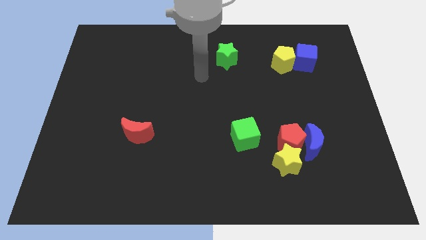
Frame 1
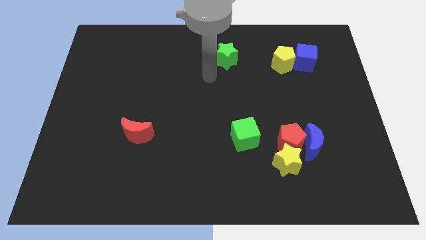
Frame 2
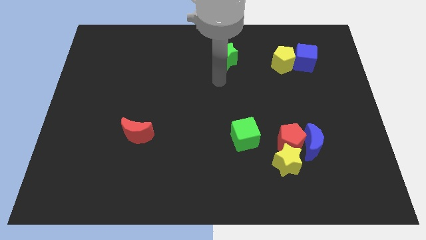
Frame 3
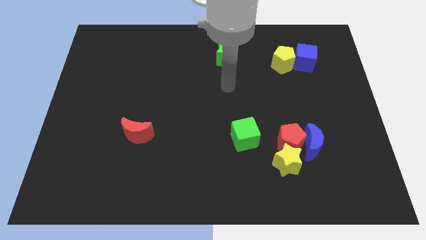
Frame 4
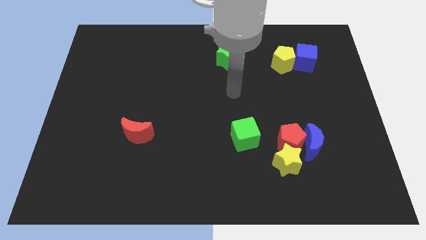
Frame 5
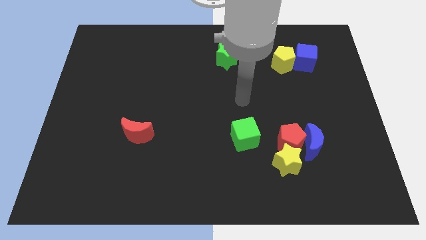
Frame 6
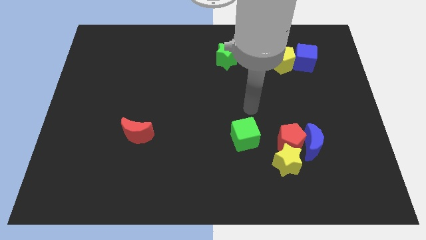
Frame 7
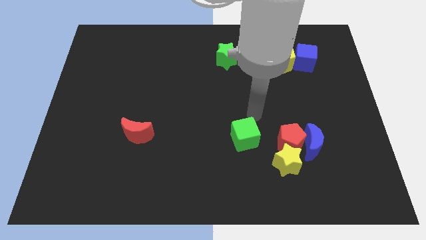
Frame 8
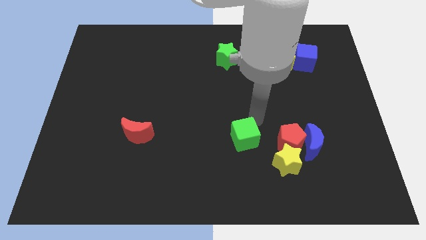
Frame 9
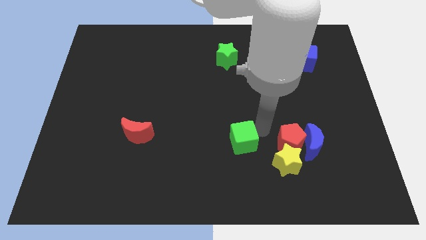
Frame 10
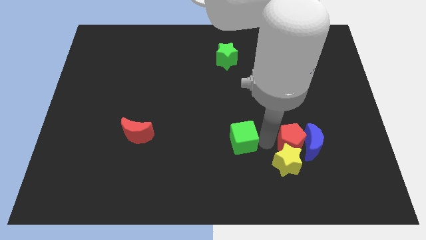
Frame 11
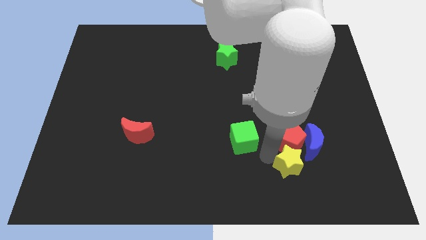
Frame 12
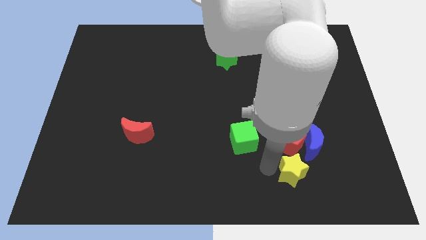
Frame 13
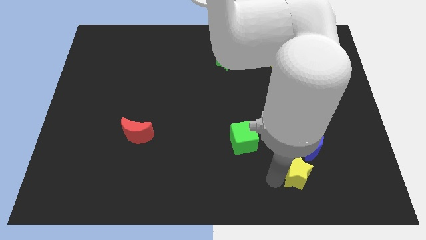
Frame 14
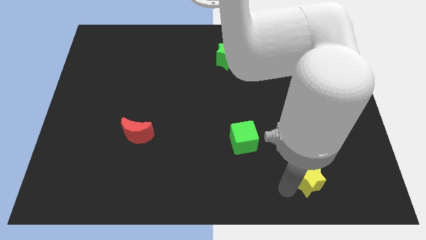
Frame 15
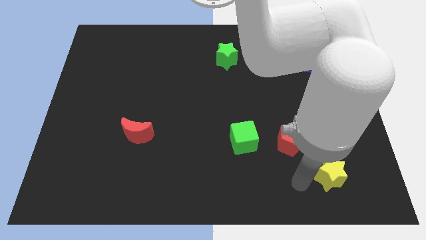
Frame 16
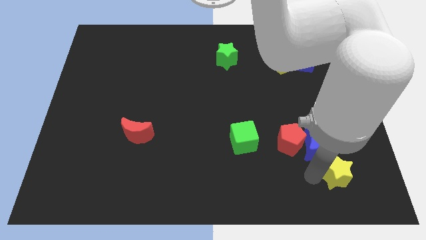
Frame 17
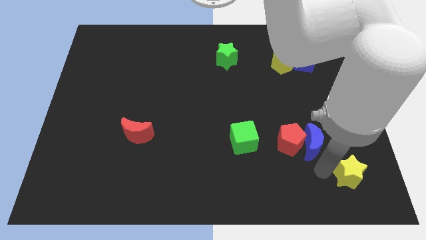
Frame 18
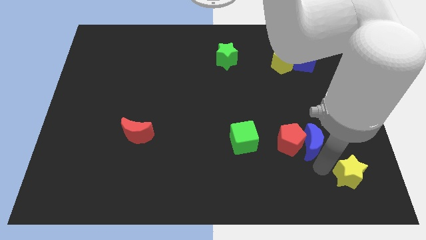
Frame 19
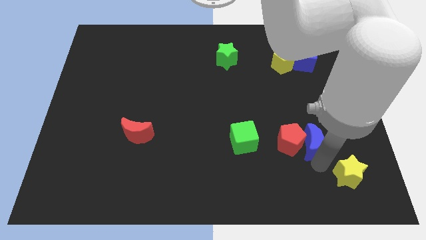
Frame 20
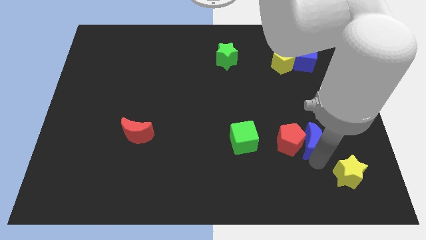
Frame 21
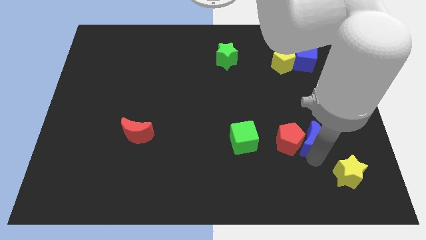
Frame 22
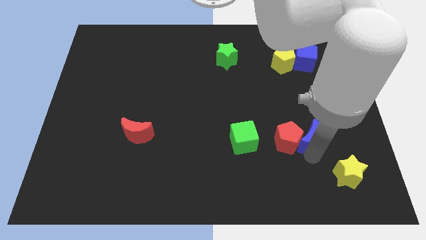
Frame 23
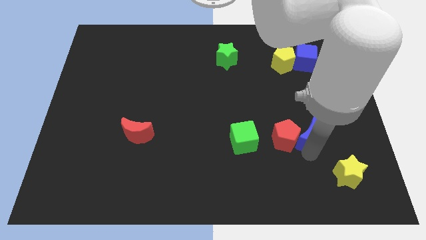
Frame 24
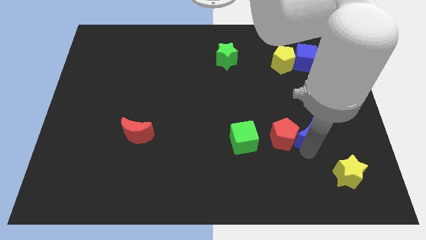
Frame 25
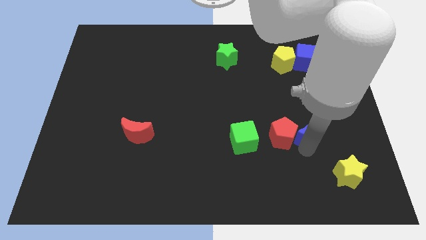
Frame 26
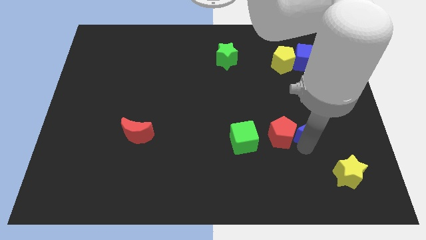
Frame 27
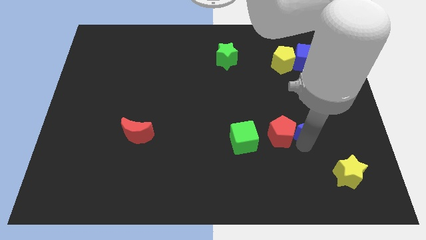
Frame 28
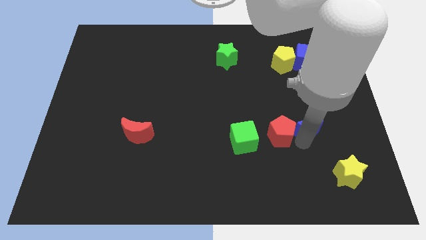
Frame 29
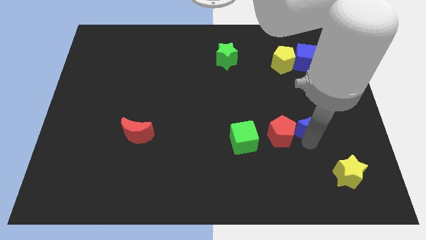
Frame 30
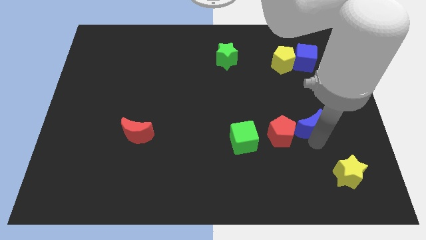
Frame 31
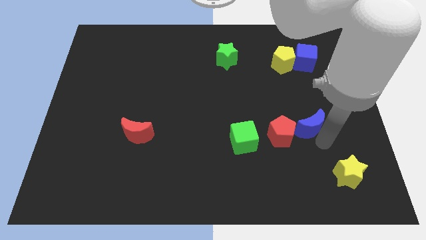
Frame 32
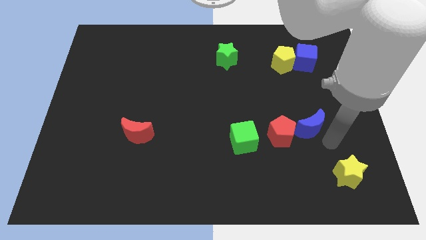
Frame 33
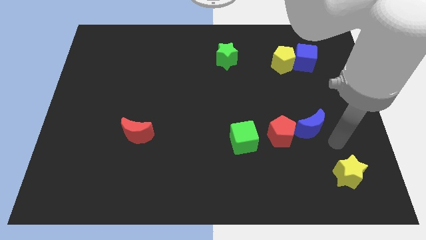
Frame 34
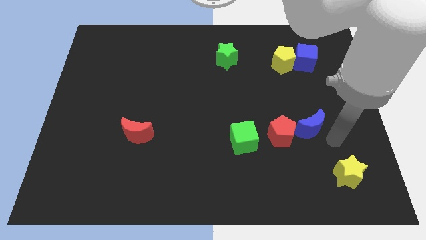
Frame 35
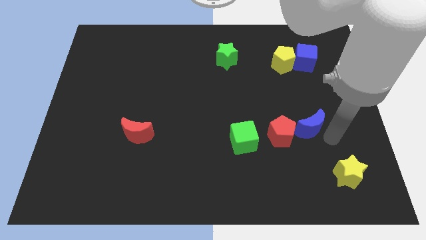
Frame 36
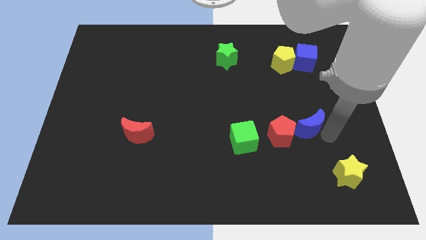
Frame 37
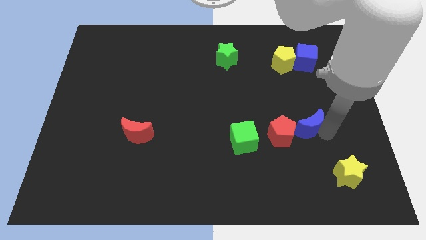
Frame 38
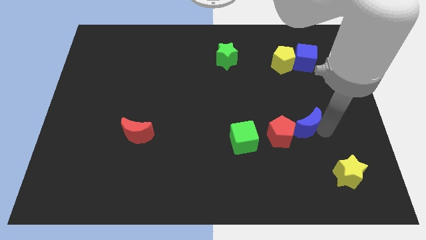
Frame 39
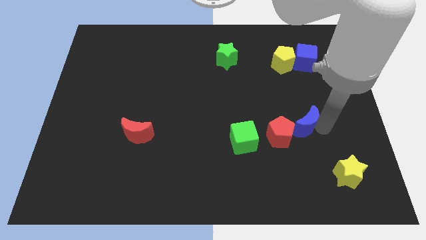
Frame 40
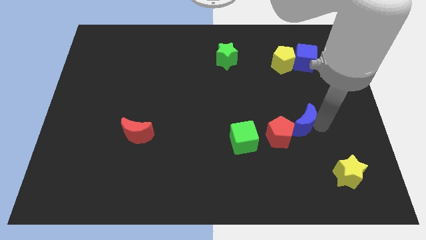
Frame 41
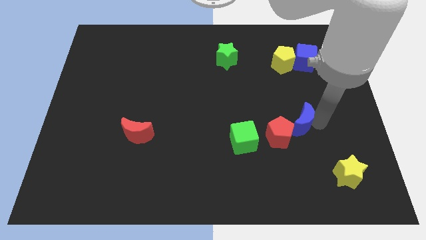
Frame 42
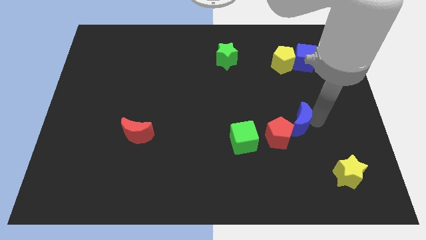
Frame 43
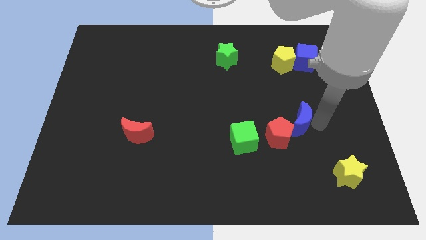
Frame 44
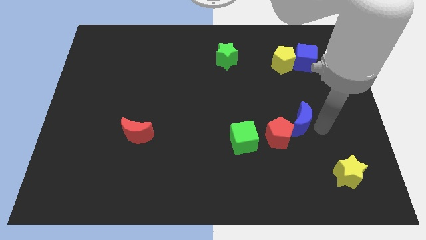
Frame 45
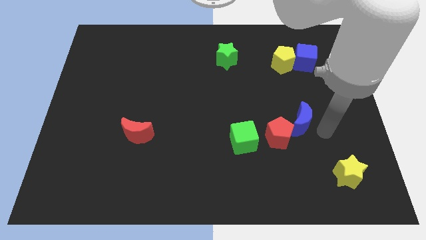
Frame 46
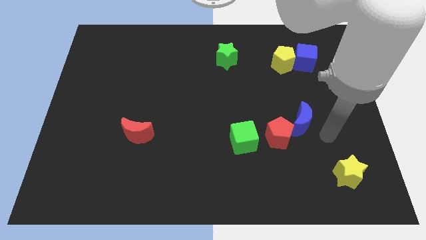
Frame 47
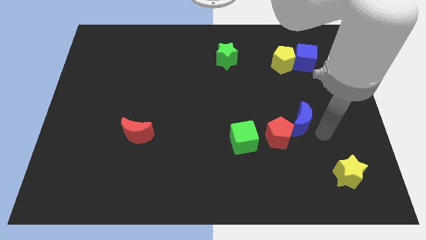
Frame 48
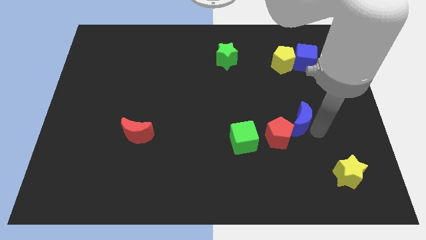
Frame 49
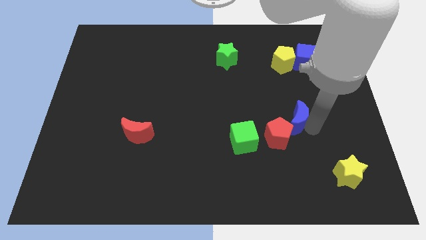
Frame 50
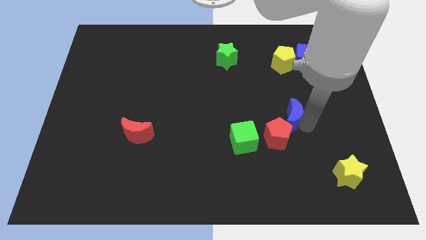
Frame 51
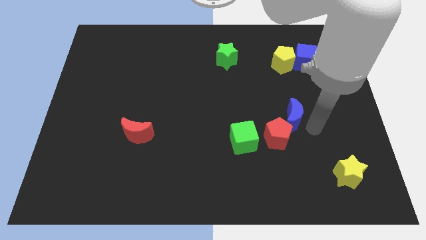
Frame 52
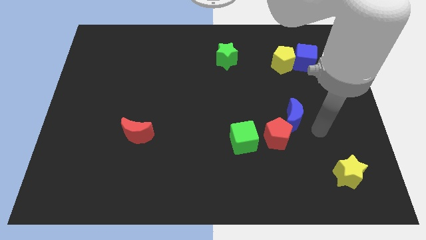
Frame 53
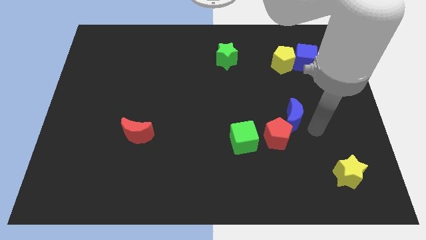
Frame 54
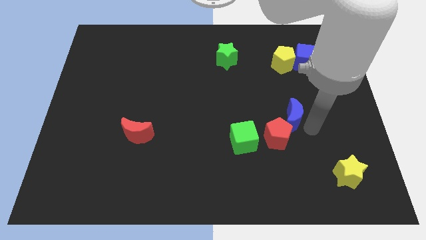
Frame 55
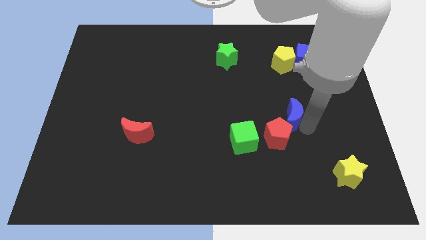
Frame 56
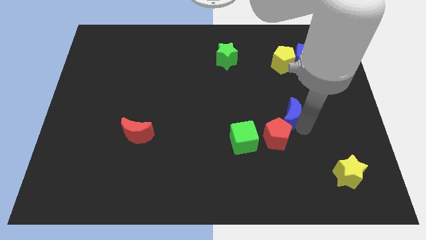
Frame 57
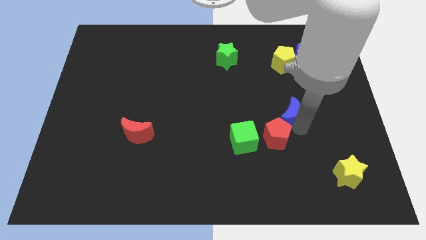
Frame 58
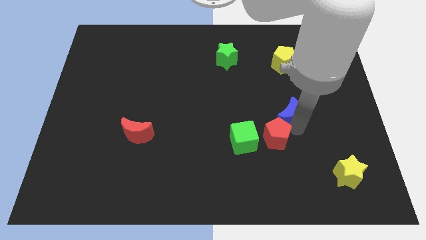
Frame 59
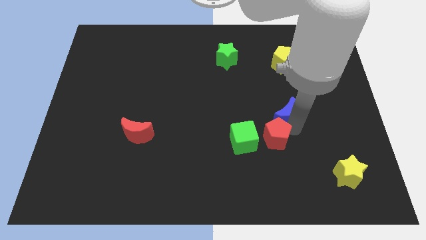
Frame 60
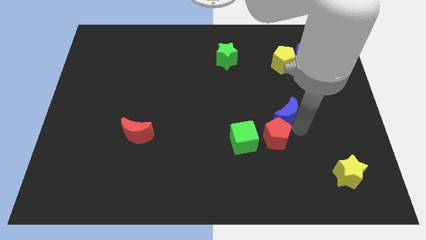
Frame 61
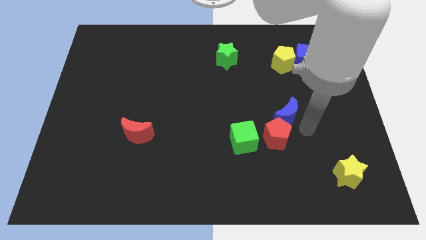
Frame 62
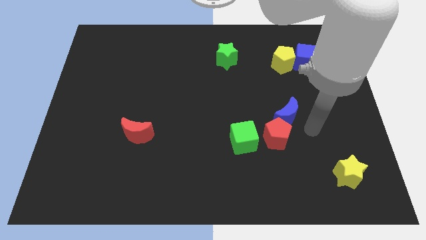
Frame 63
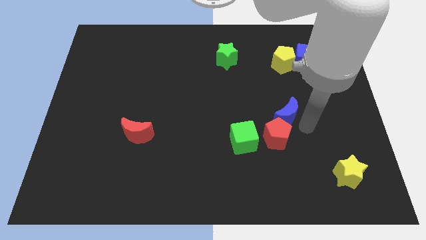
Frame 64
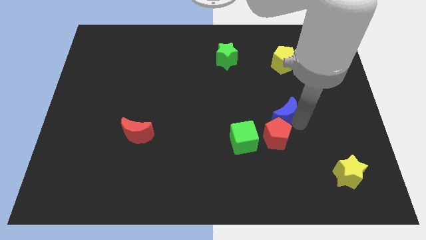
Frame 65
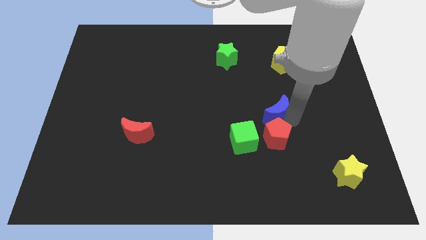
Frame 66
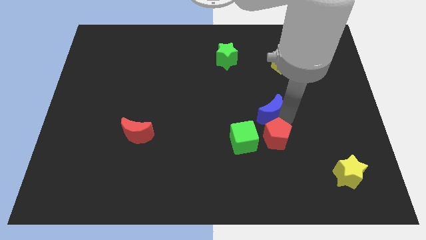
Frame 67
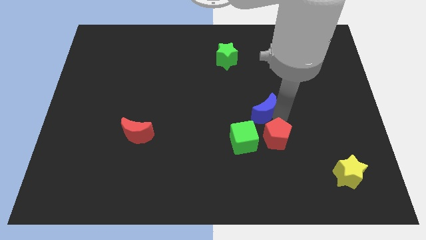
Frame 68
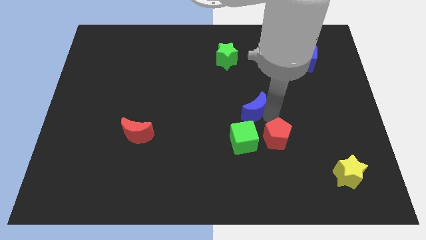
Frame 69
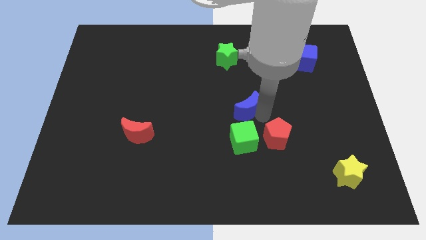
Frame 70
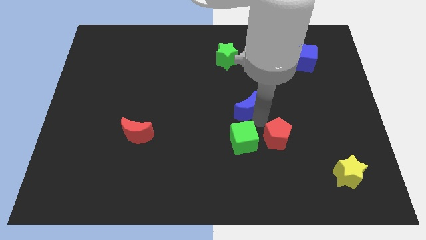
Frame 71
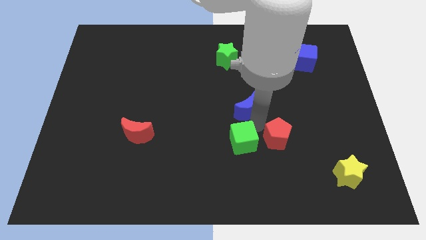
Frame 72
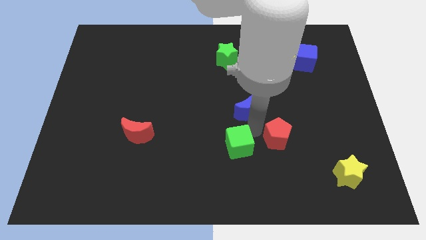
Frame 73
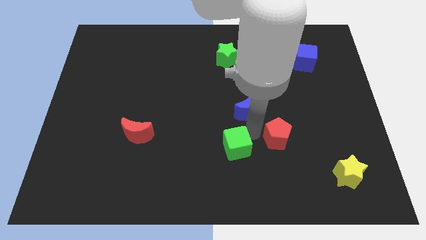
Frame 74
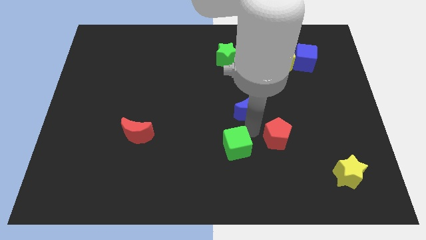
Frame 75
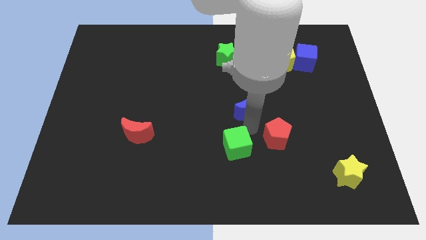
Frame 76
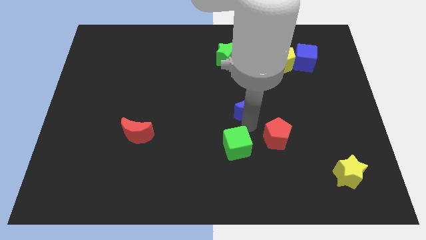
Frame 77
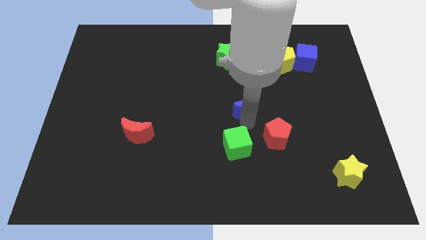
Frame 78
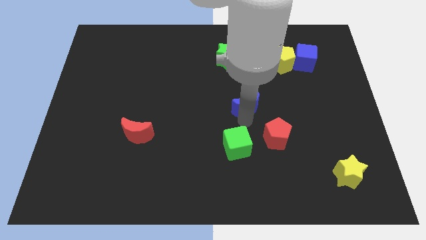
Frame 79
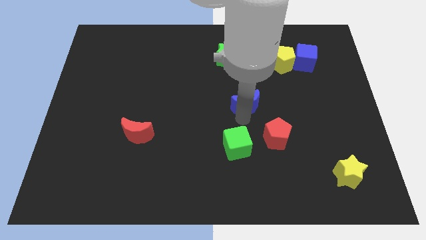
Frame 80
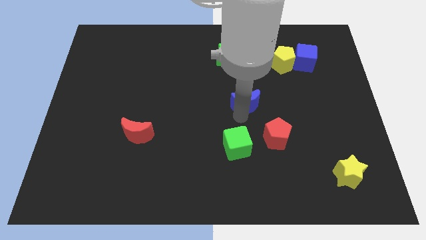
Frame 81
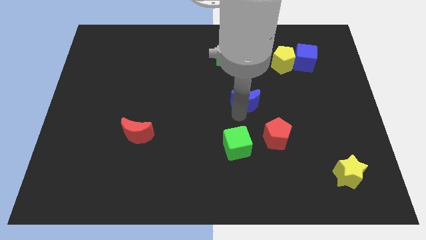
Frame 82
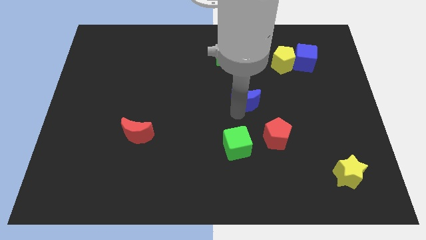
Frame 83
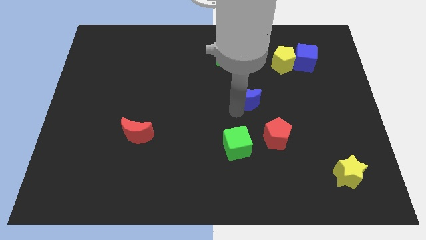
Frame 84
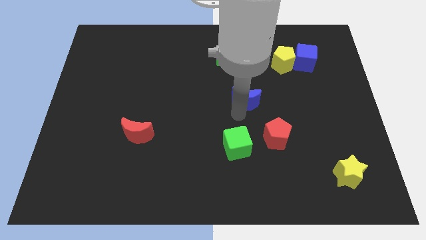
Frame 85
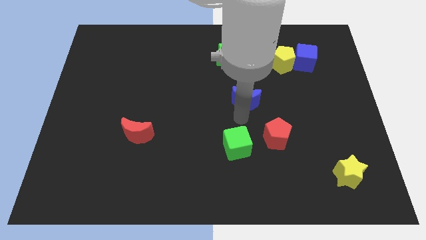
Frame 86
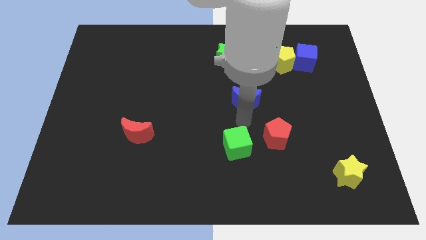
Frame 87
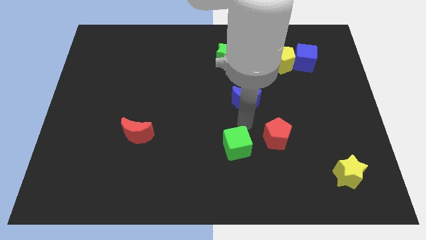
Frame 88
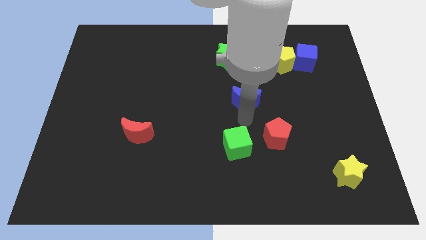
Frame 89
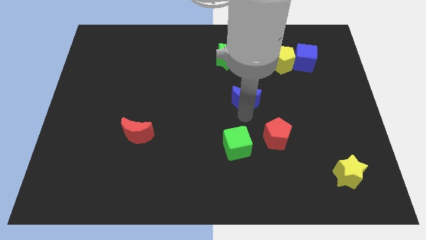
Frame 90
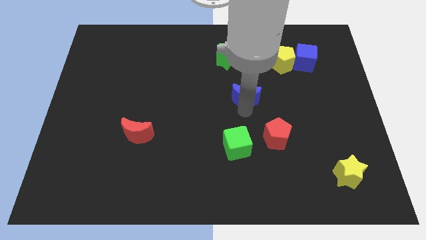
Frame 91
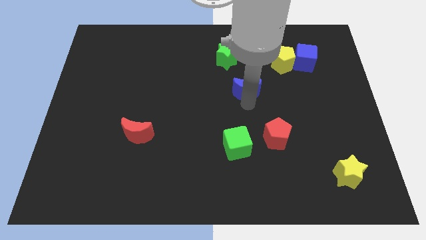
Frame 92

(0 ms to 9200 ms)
slide the blue moon up and then to the left
